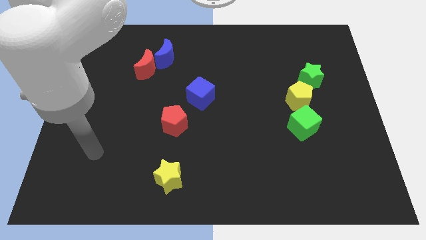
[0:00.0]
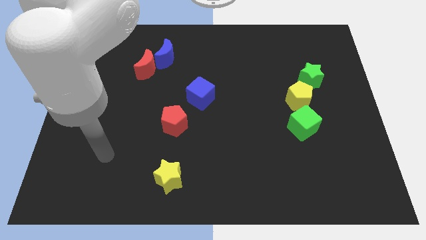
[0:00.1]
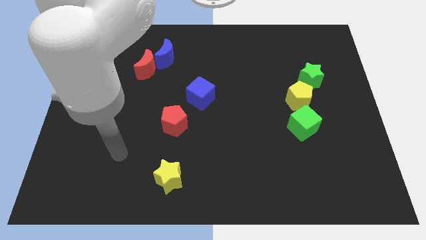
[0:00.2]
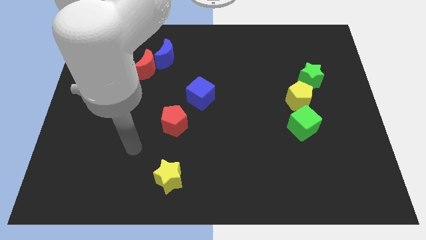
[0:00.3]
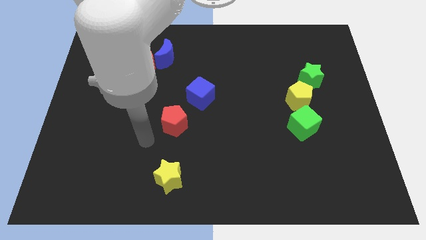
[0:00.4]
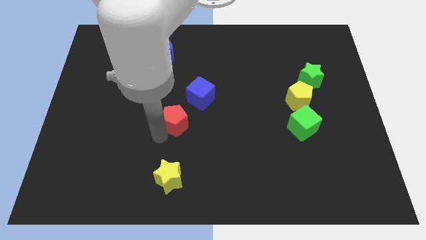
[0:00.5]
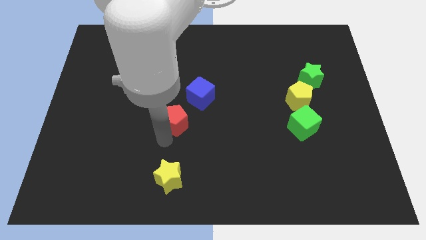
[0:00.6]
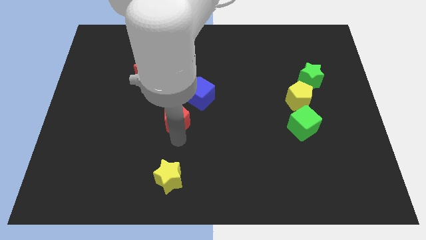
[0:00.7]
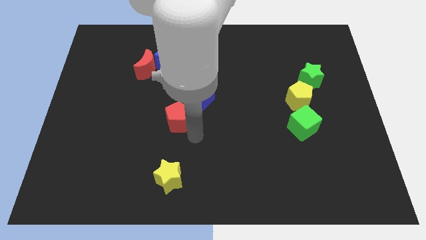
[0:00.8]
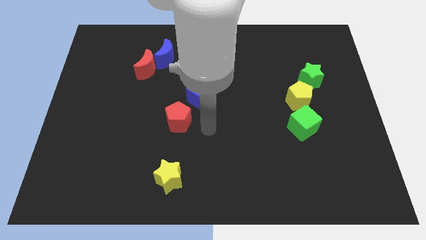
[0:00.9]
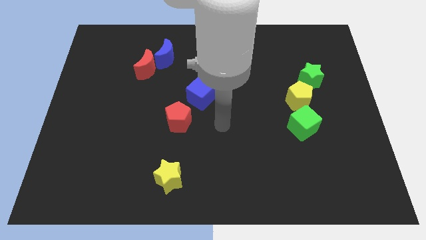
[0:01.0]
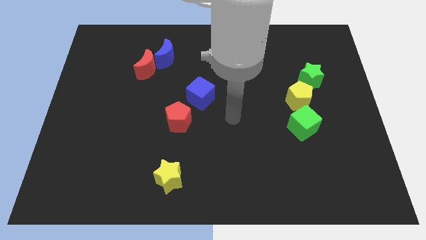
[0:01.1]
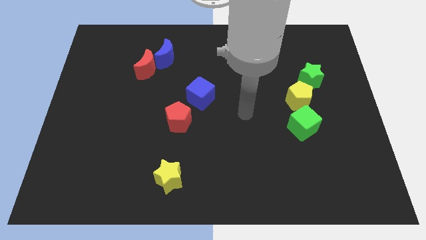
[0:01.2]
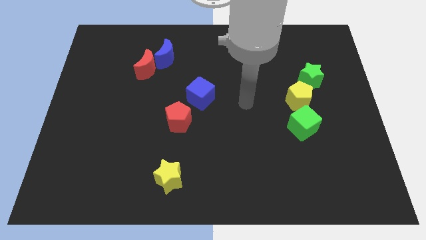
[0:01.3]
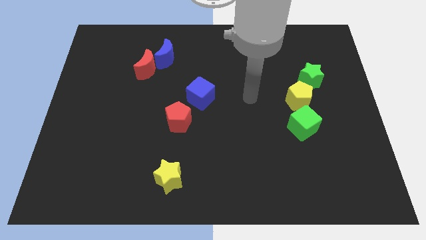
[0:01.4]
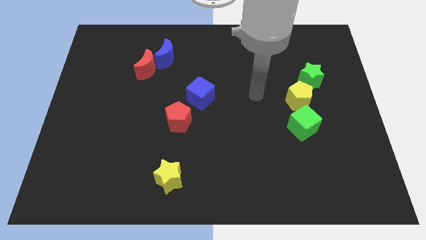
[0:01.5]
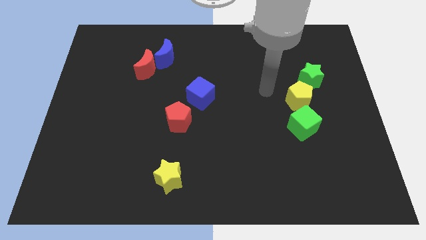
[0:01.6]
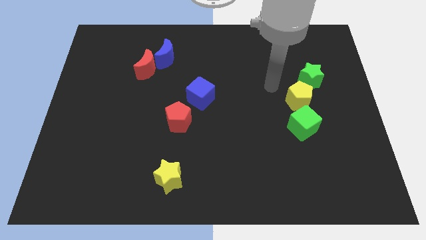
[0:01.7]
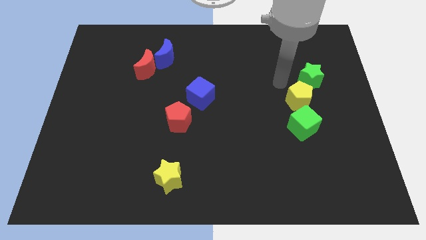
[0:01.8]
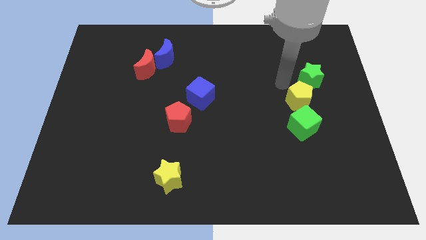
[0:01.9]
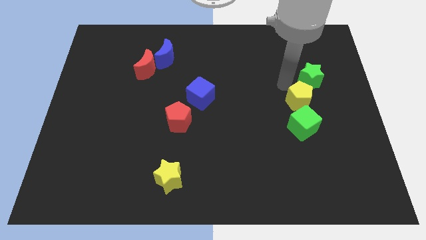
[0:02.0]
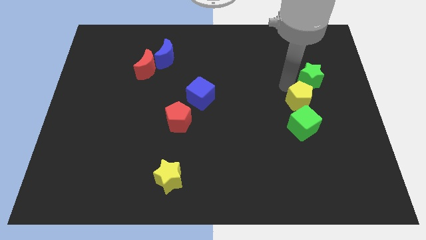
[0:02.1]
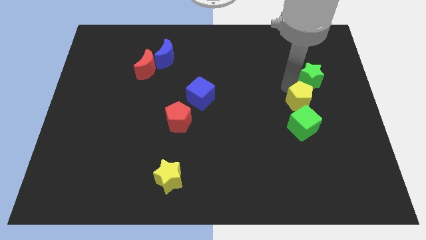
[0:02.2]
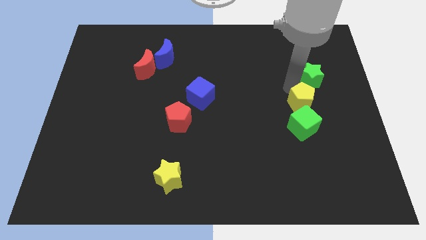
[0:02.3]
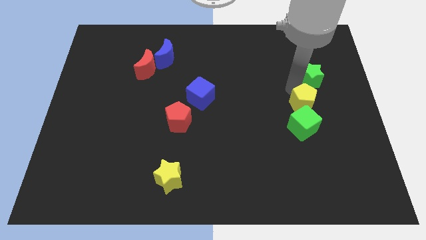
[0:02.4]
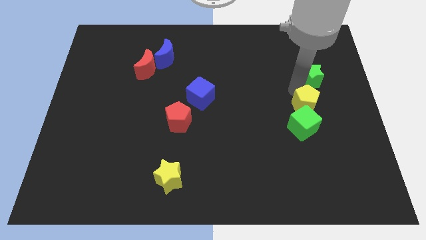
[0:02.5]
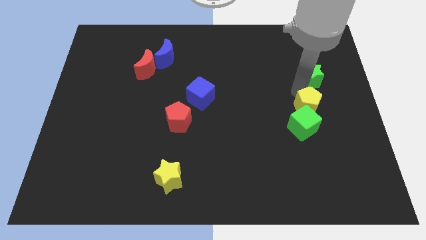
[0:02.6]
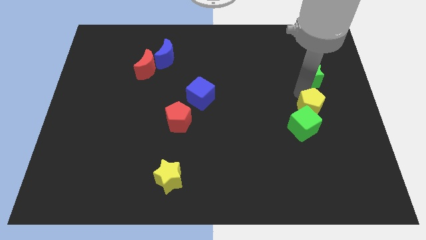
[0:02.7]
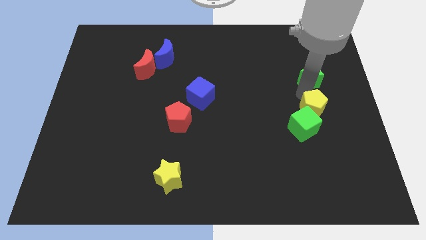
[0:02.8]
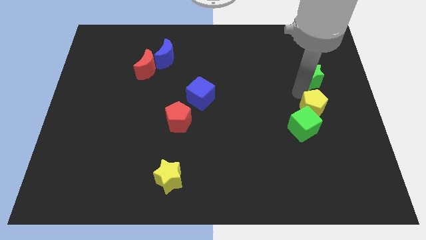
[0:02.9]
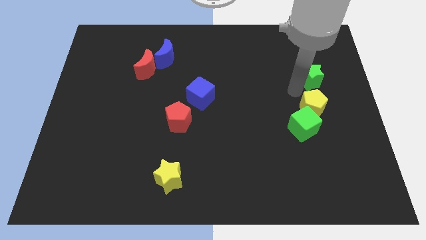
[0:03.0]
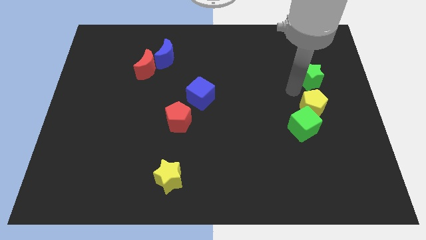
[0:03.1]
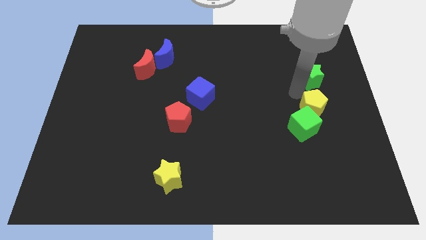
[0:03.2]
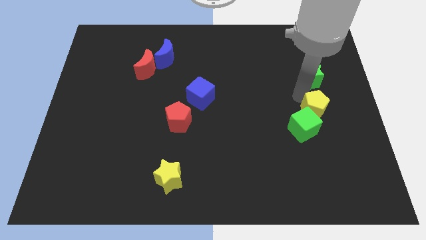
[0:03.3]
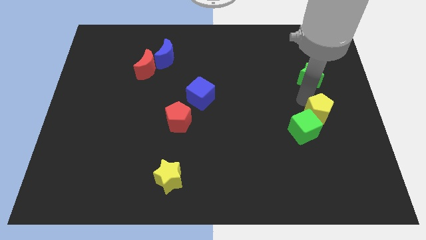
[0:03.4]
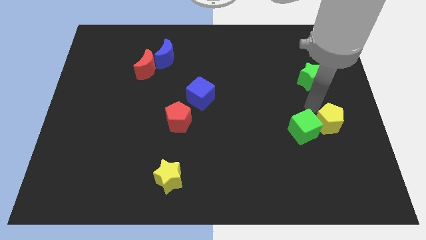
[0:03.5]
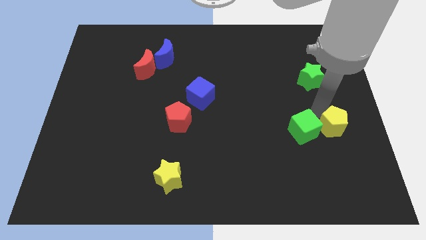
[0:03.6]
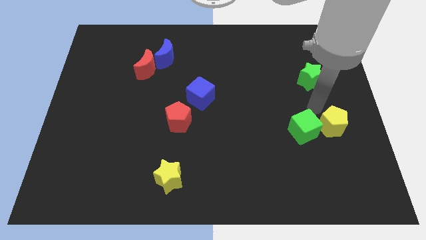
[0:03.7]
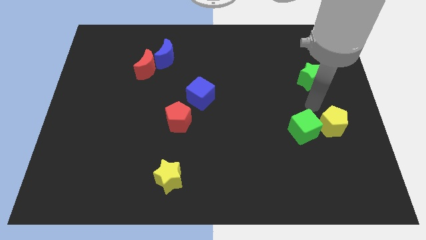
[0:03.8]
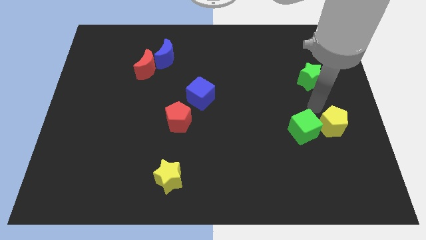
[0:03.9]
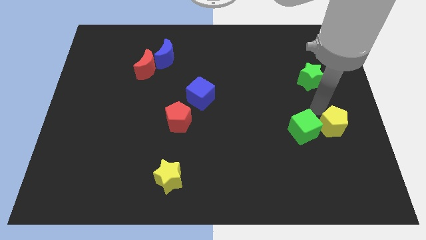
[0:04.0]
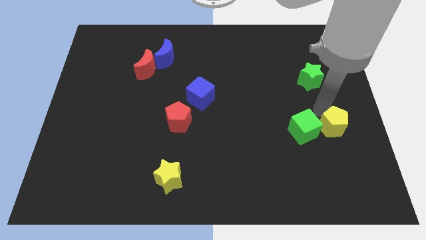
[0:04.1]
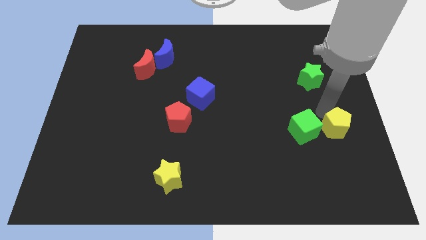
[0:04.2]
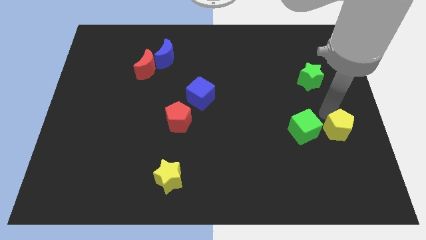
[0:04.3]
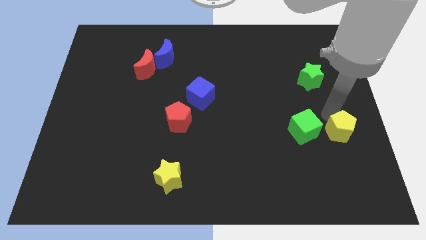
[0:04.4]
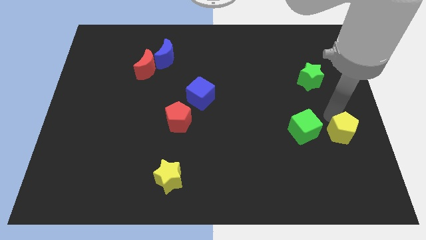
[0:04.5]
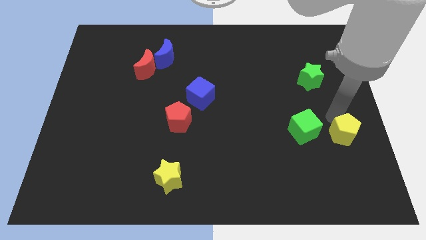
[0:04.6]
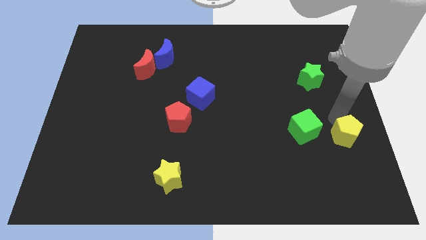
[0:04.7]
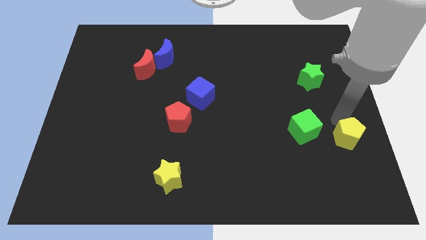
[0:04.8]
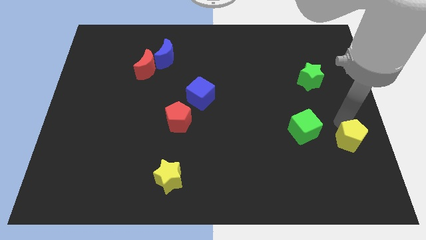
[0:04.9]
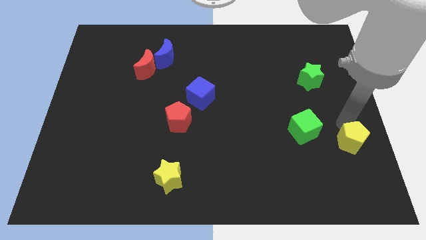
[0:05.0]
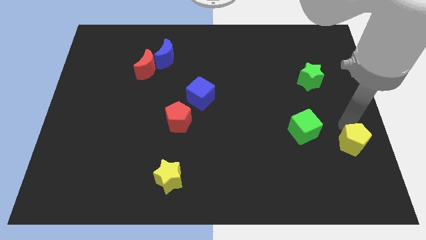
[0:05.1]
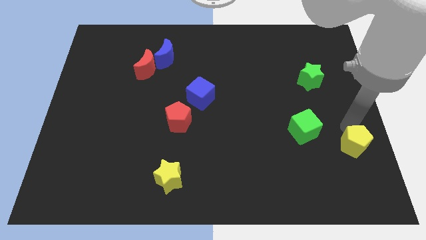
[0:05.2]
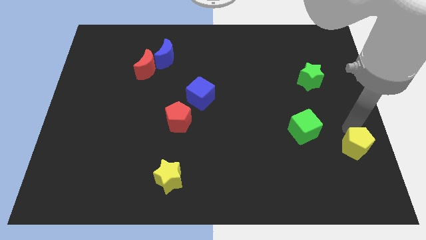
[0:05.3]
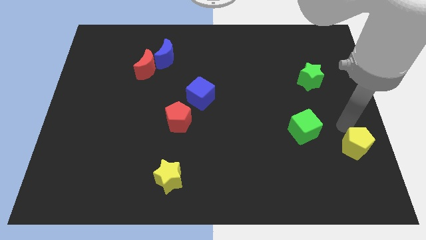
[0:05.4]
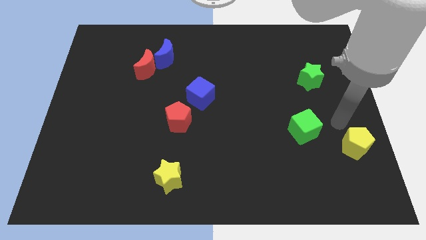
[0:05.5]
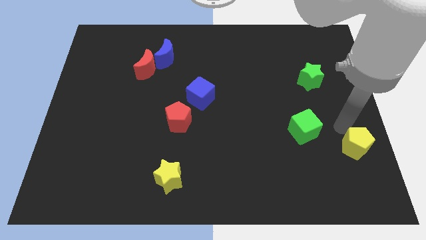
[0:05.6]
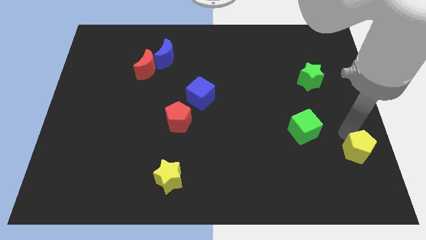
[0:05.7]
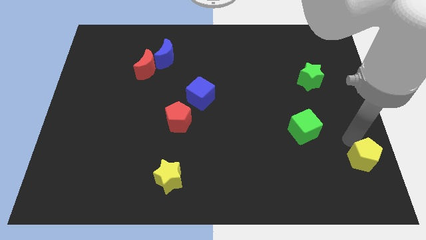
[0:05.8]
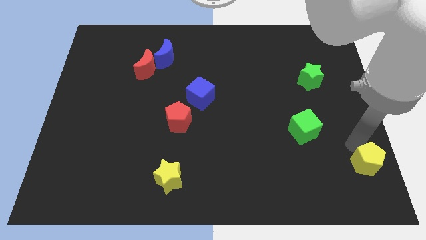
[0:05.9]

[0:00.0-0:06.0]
put the yellow pentagon to the lower right corner

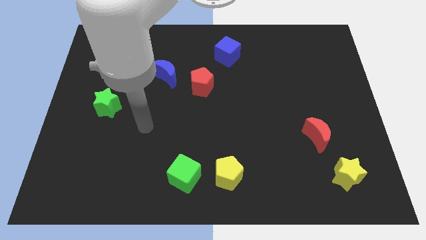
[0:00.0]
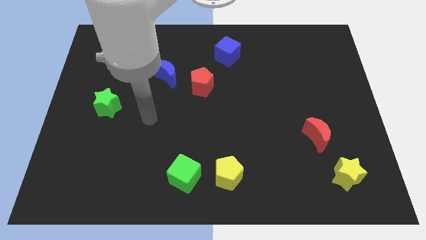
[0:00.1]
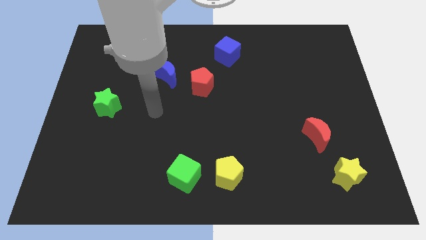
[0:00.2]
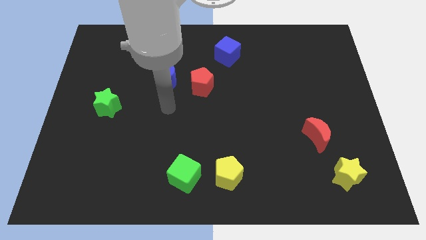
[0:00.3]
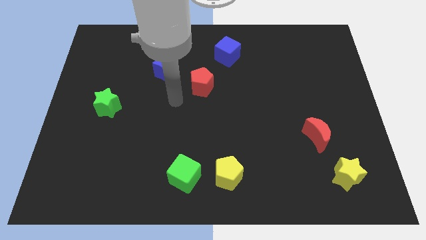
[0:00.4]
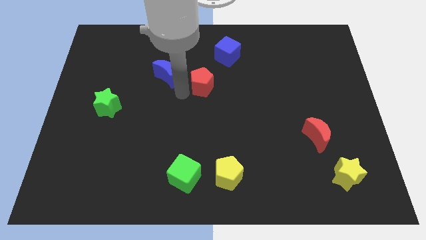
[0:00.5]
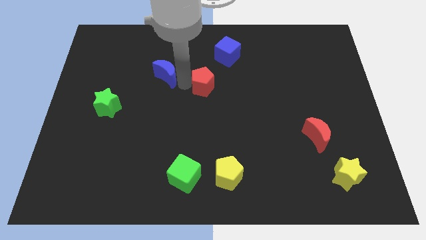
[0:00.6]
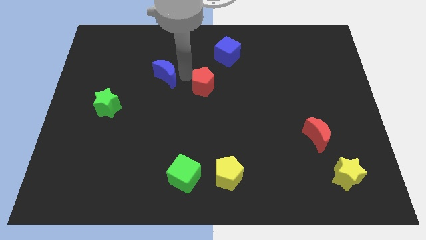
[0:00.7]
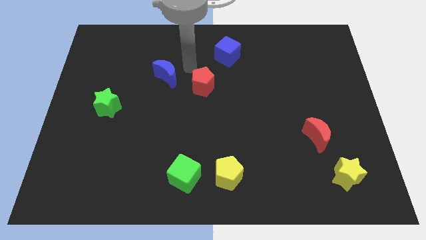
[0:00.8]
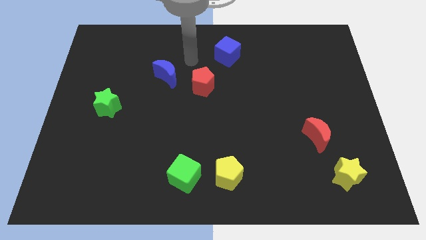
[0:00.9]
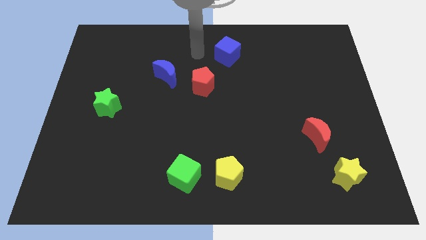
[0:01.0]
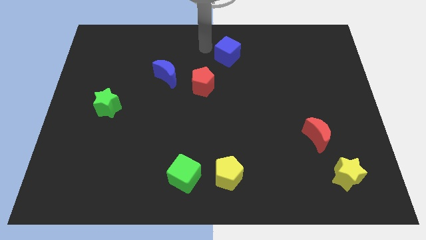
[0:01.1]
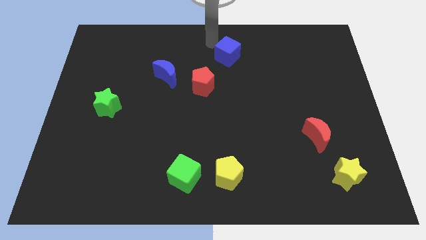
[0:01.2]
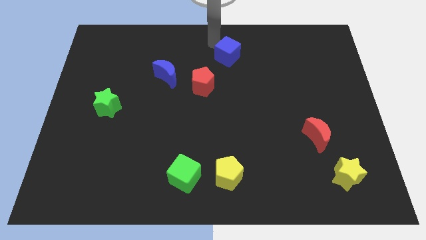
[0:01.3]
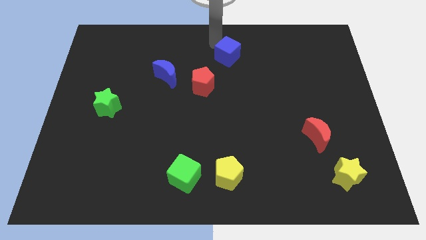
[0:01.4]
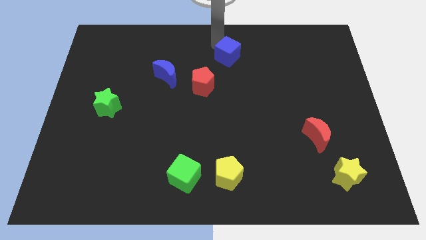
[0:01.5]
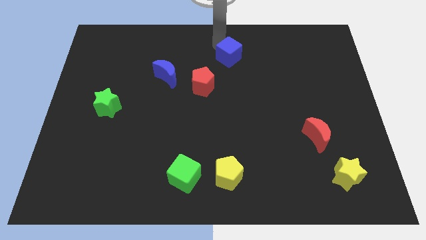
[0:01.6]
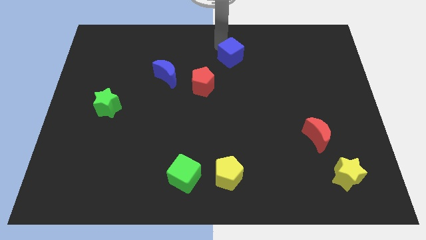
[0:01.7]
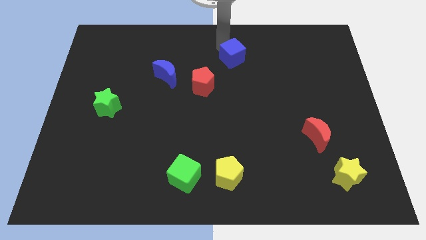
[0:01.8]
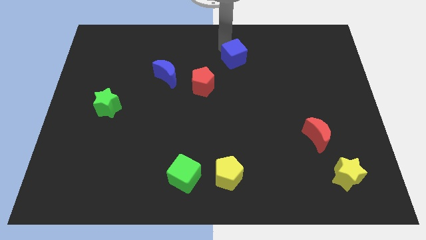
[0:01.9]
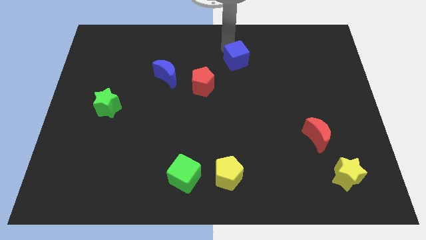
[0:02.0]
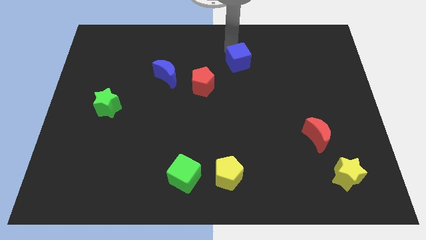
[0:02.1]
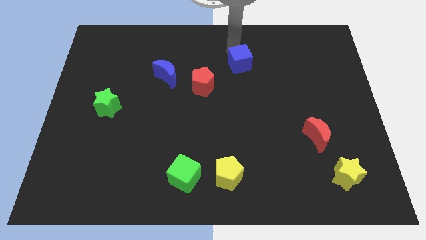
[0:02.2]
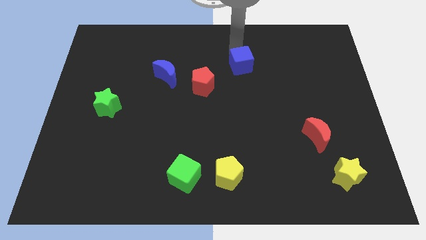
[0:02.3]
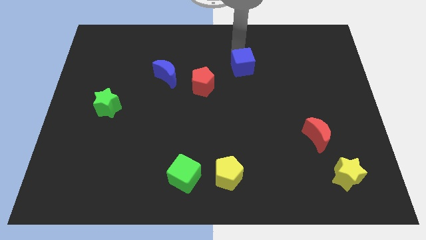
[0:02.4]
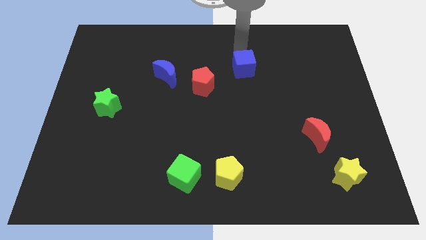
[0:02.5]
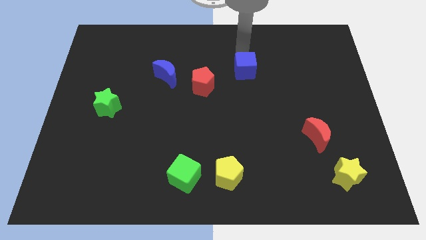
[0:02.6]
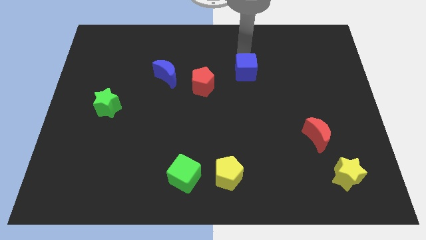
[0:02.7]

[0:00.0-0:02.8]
move the blue cube to the center
